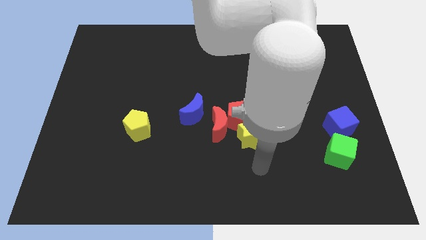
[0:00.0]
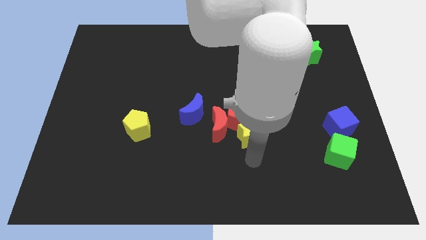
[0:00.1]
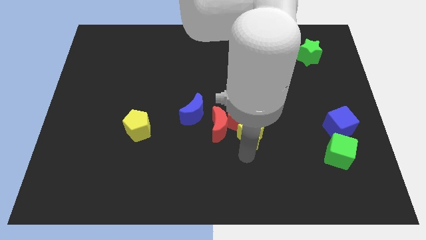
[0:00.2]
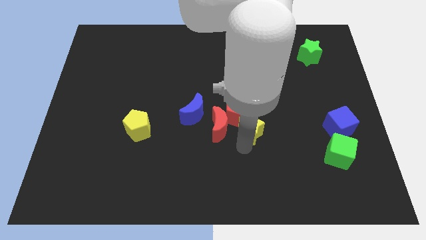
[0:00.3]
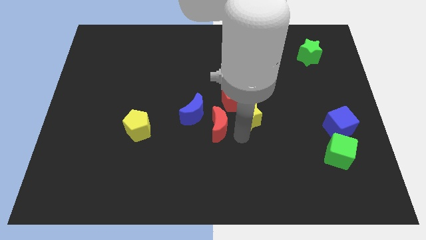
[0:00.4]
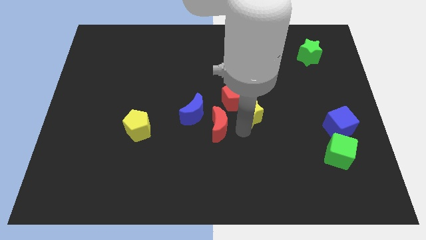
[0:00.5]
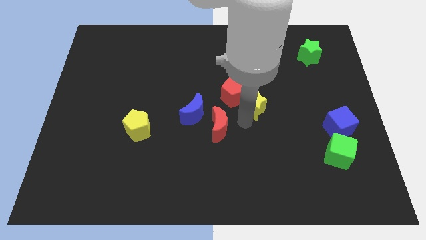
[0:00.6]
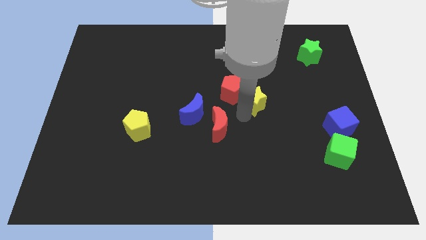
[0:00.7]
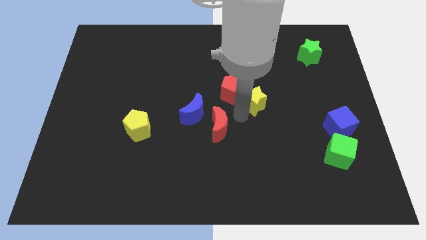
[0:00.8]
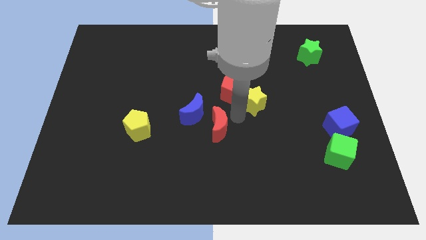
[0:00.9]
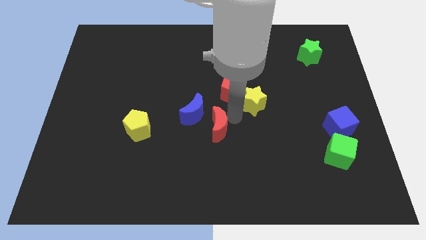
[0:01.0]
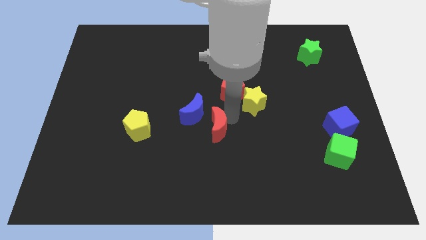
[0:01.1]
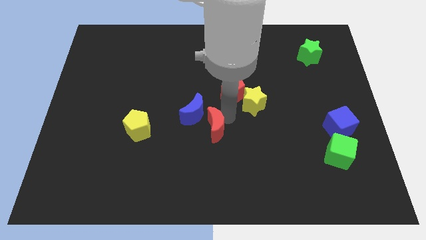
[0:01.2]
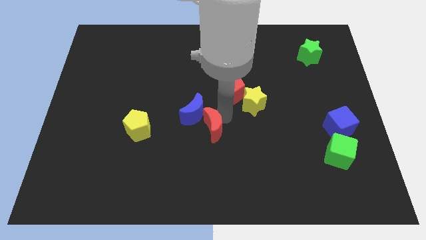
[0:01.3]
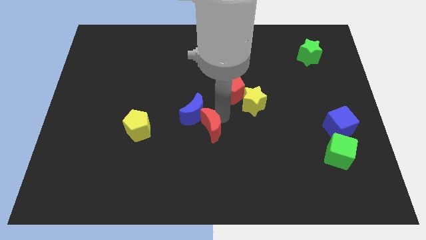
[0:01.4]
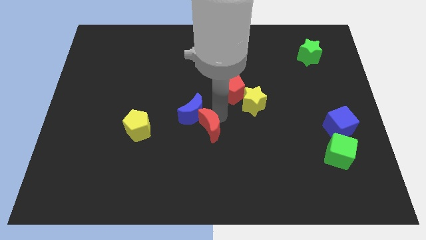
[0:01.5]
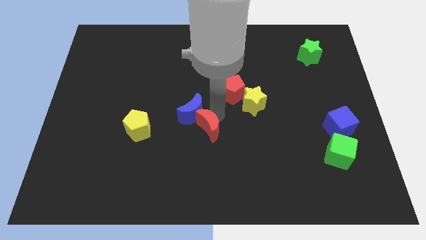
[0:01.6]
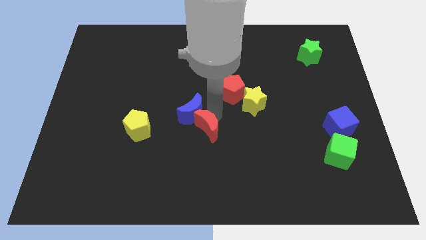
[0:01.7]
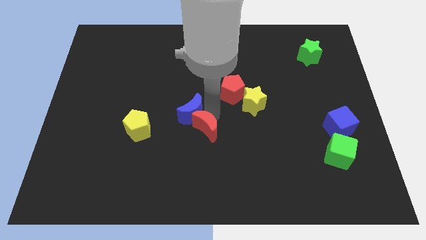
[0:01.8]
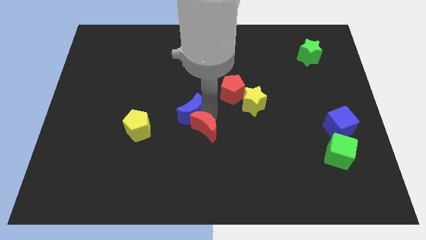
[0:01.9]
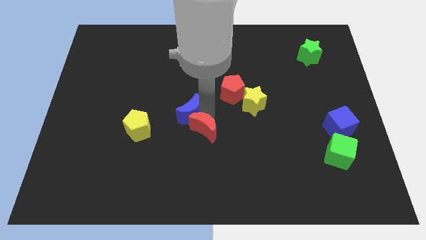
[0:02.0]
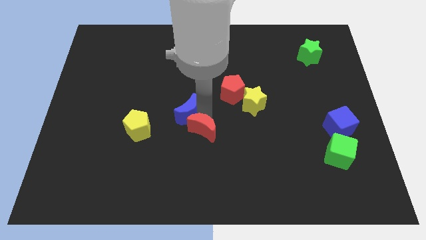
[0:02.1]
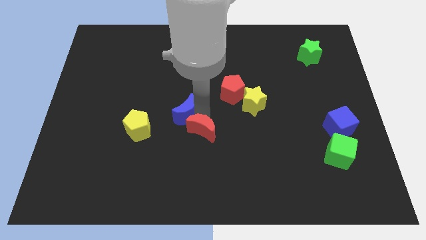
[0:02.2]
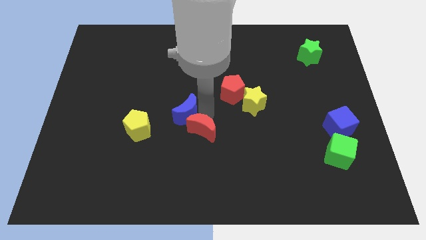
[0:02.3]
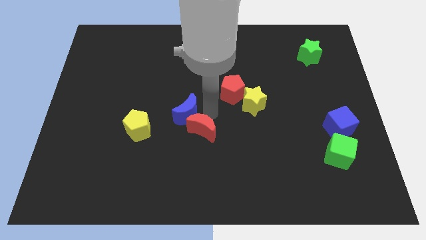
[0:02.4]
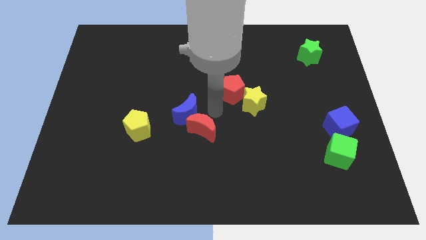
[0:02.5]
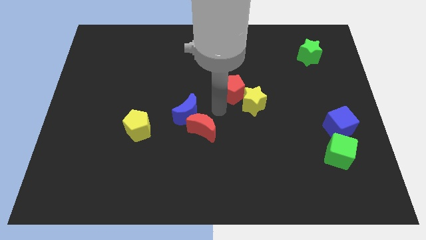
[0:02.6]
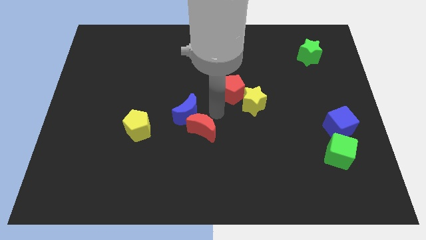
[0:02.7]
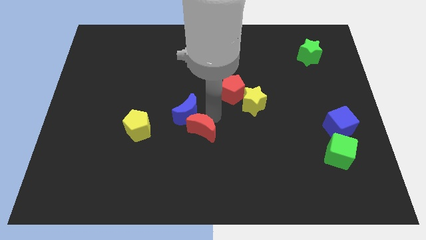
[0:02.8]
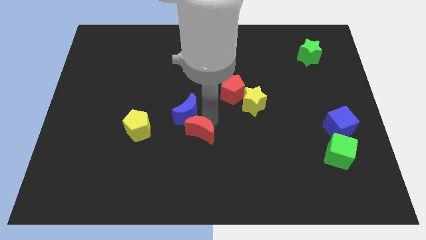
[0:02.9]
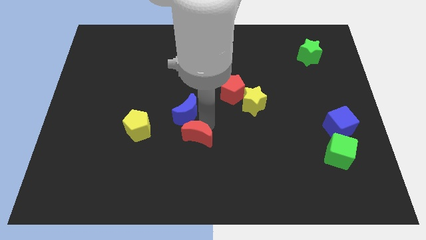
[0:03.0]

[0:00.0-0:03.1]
separate the red moon from the red pentagon, blue moon, and yellow star

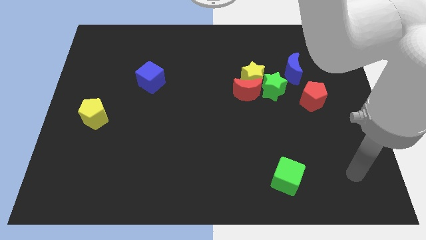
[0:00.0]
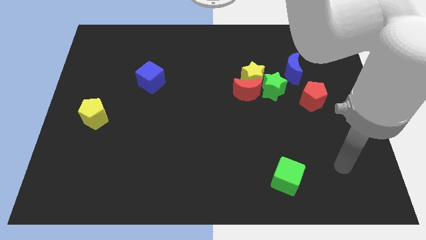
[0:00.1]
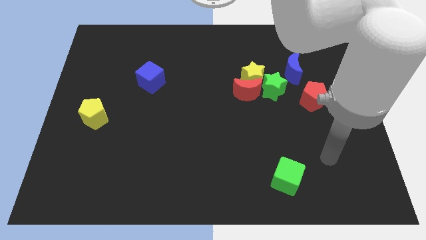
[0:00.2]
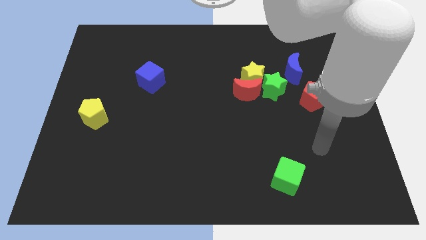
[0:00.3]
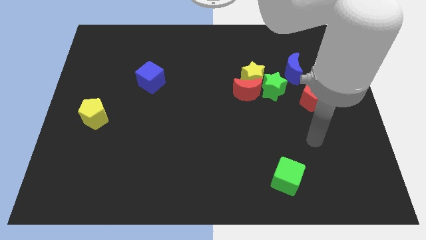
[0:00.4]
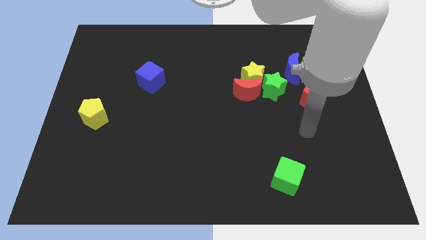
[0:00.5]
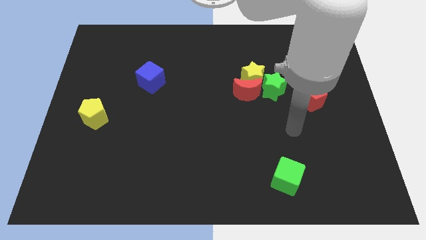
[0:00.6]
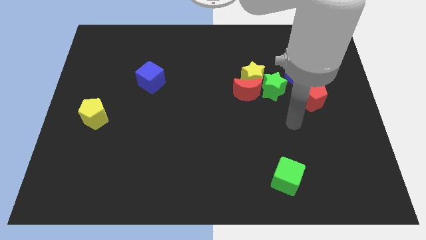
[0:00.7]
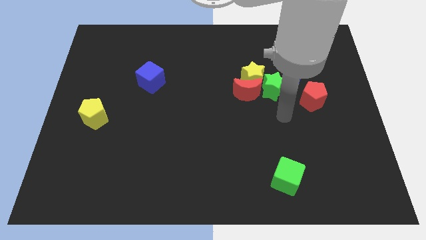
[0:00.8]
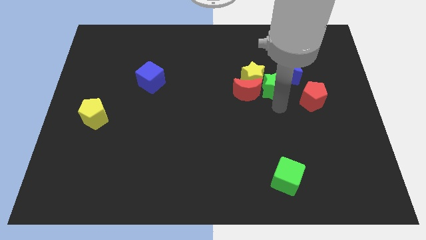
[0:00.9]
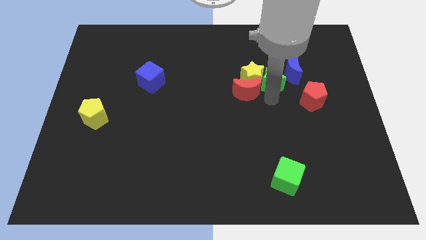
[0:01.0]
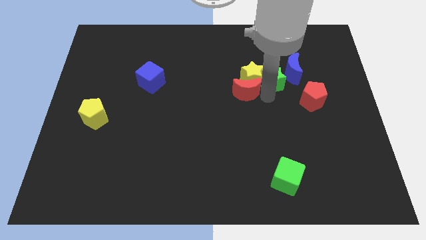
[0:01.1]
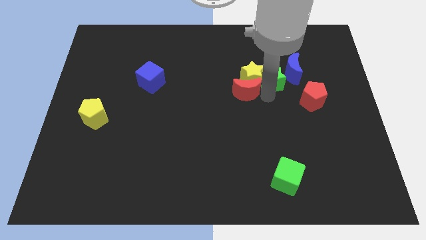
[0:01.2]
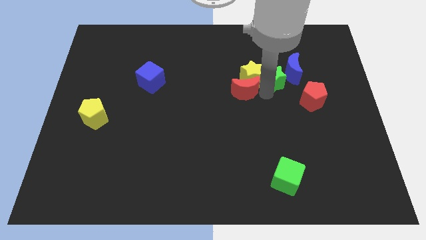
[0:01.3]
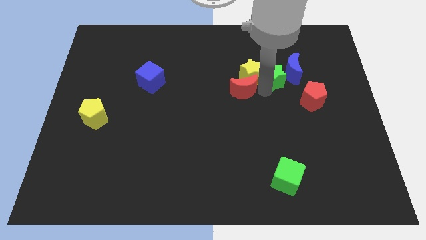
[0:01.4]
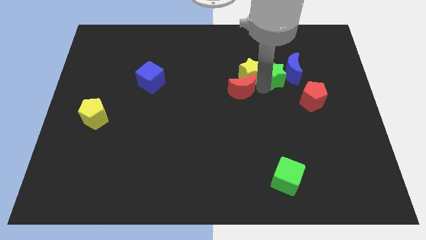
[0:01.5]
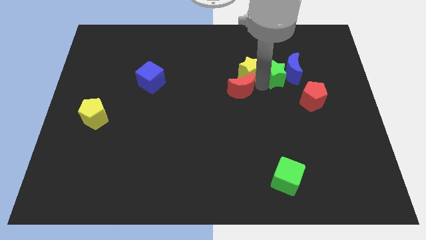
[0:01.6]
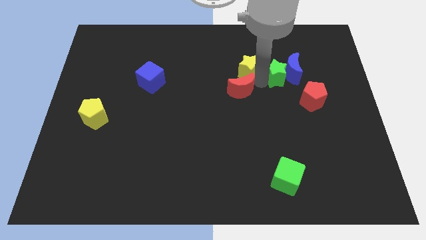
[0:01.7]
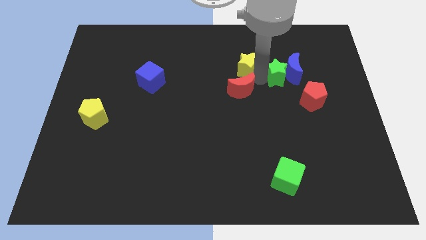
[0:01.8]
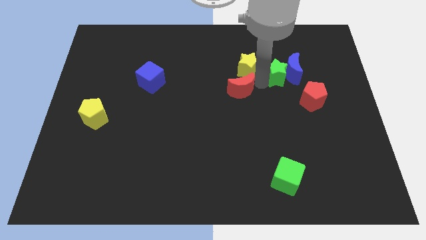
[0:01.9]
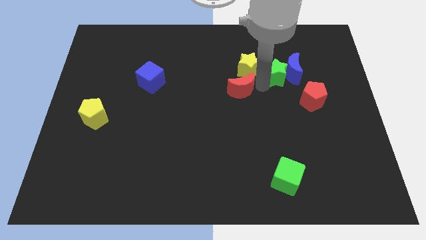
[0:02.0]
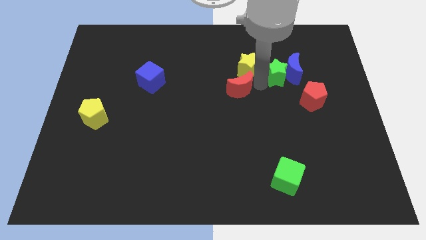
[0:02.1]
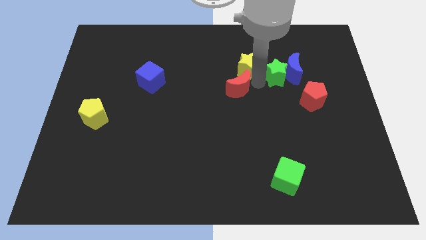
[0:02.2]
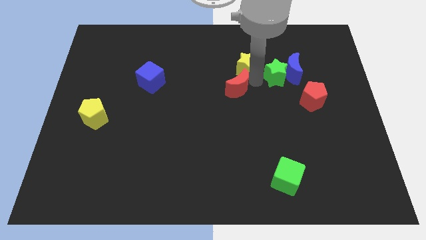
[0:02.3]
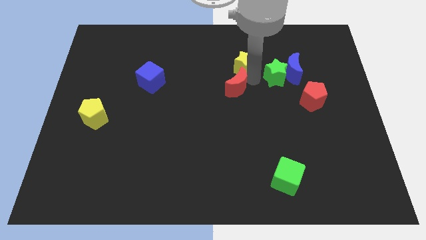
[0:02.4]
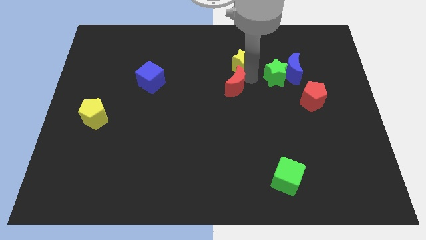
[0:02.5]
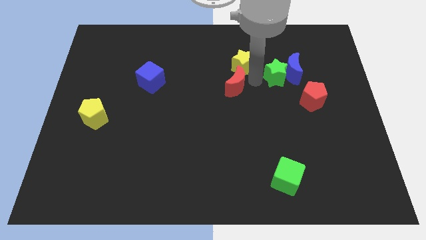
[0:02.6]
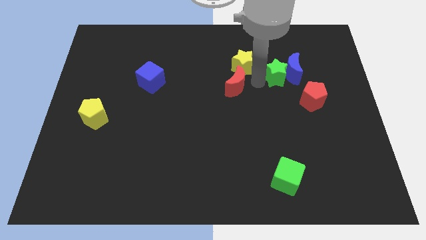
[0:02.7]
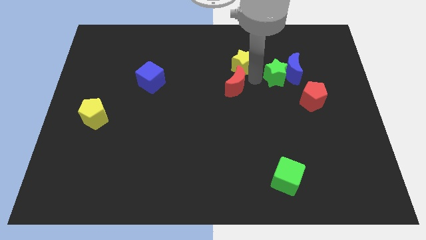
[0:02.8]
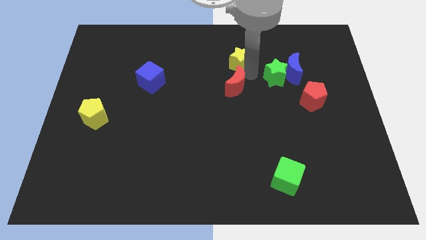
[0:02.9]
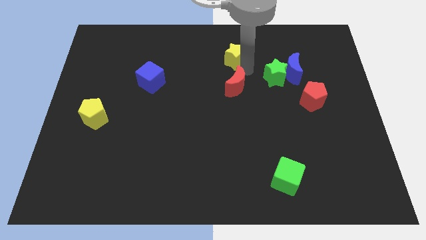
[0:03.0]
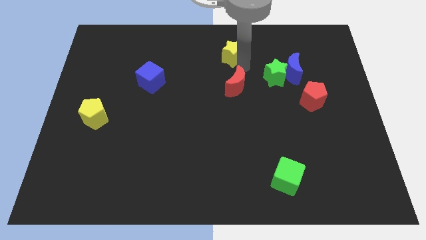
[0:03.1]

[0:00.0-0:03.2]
separate the yellow star from the red moon and green star

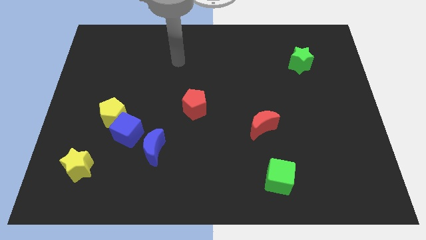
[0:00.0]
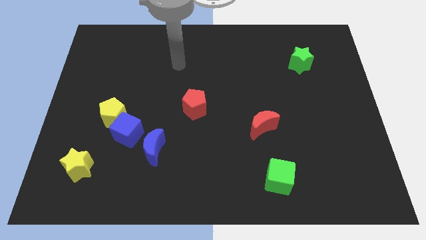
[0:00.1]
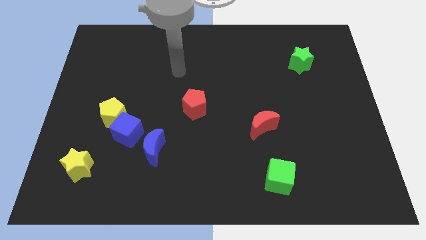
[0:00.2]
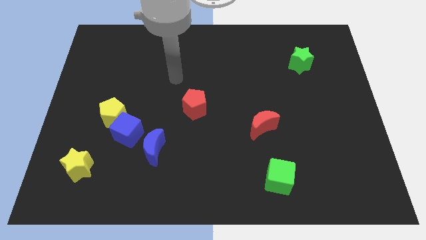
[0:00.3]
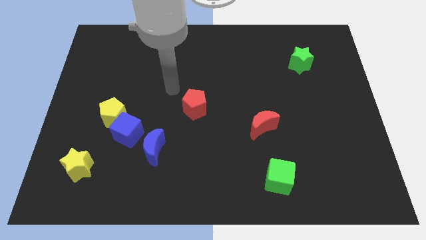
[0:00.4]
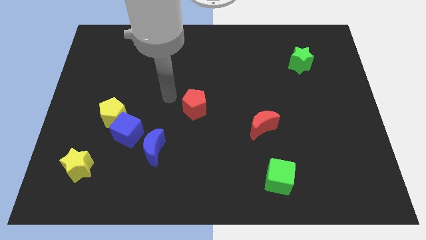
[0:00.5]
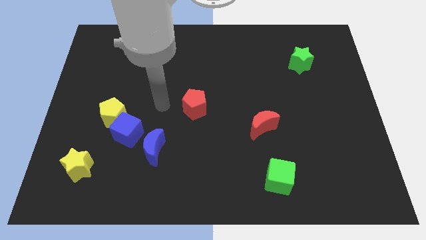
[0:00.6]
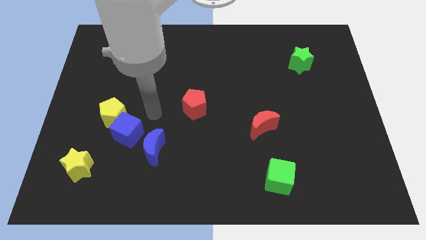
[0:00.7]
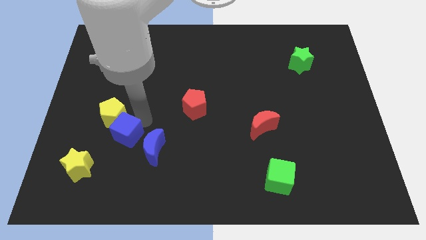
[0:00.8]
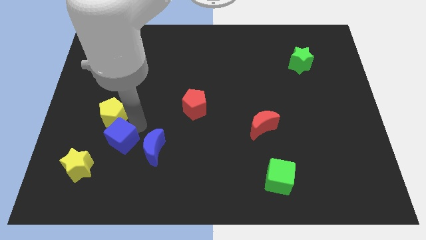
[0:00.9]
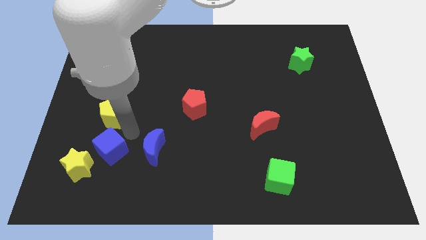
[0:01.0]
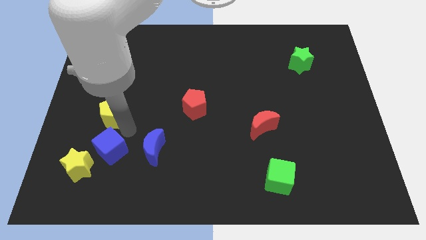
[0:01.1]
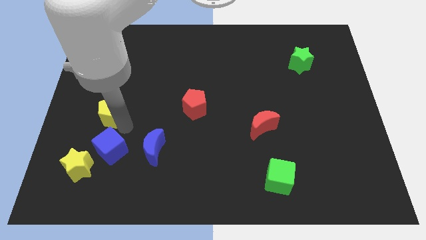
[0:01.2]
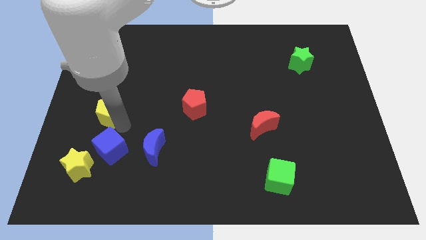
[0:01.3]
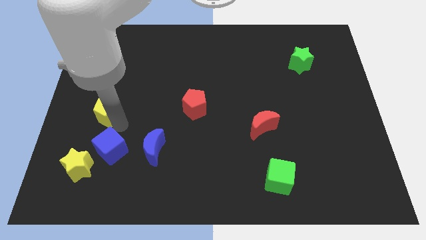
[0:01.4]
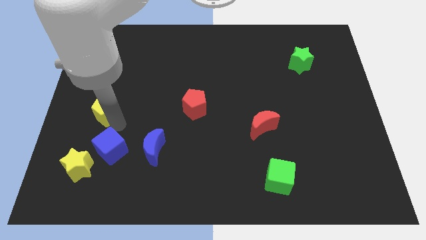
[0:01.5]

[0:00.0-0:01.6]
pull the yellow pentagon apart from the blue cube

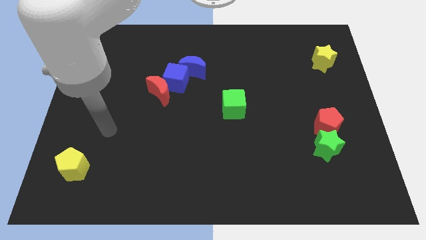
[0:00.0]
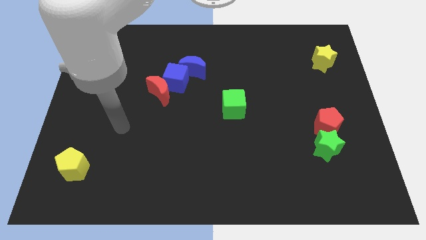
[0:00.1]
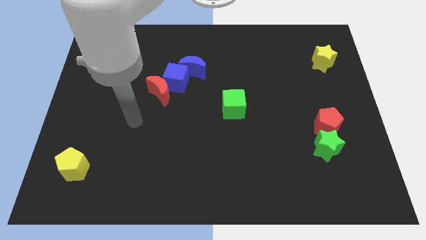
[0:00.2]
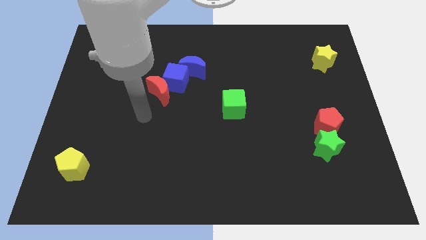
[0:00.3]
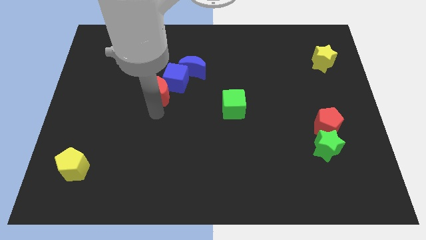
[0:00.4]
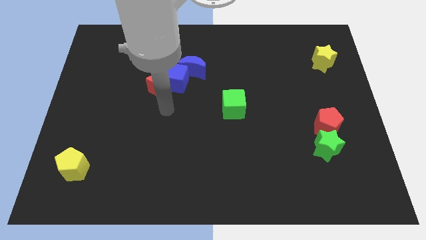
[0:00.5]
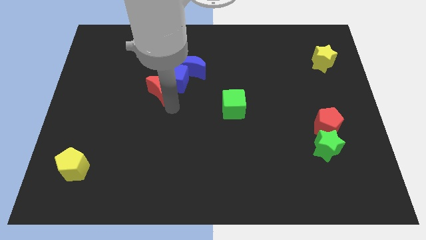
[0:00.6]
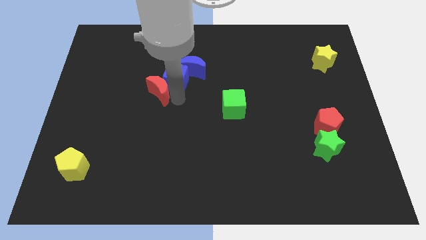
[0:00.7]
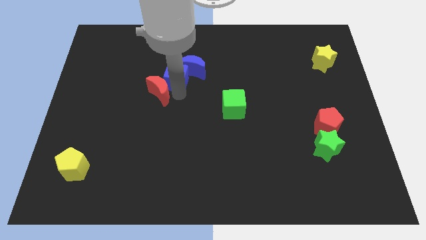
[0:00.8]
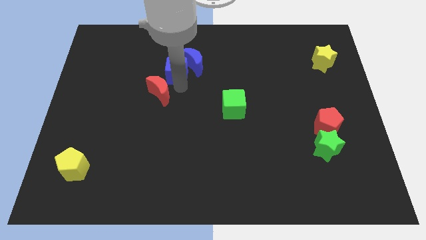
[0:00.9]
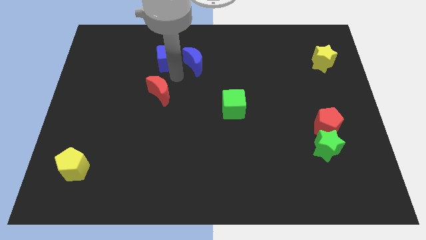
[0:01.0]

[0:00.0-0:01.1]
move the red moon away from the blue cube

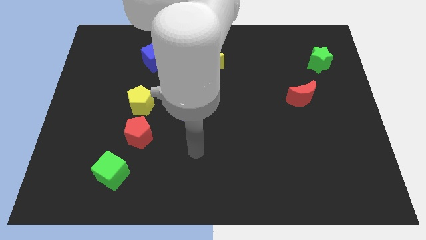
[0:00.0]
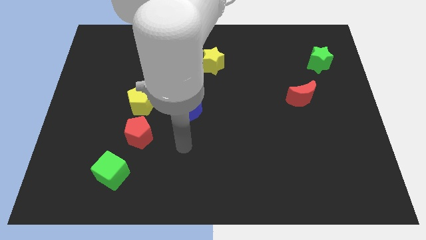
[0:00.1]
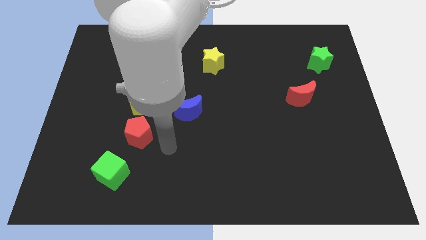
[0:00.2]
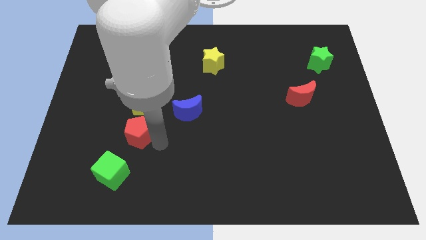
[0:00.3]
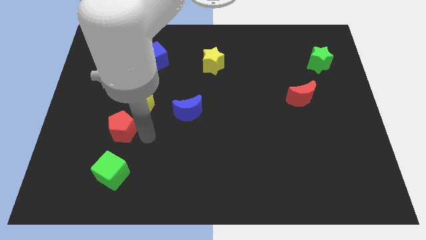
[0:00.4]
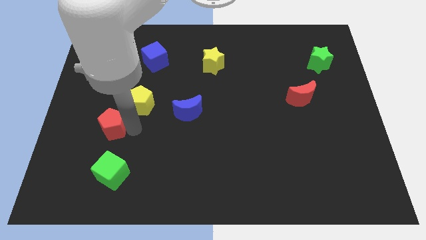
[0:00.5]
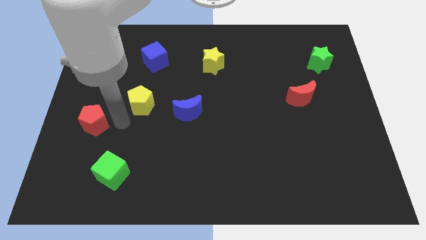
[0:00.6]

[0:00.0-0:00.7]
pull the yellow pentagon apart from the red pentagon
